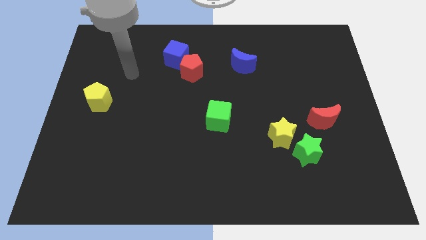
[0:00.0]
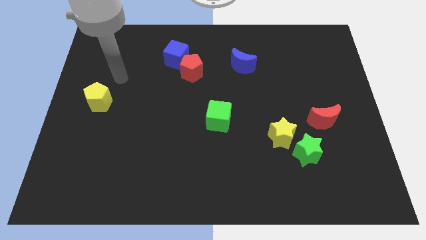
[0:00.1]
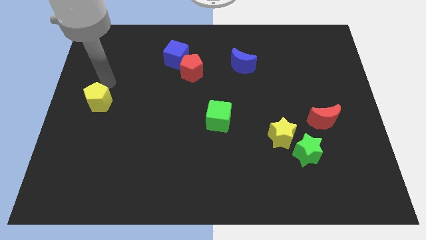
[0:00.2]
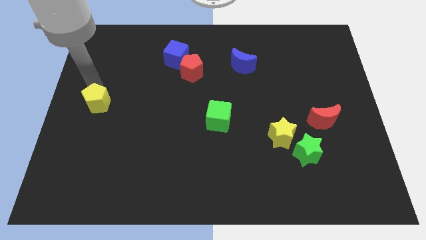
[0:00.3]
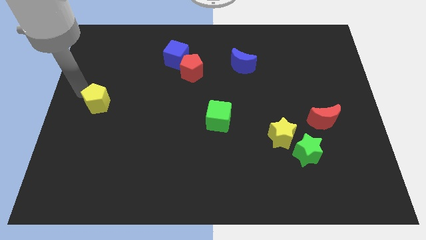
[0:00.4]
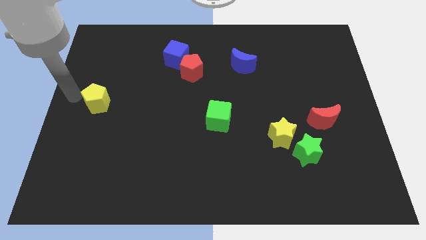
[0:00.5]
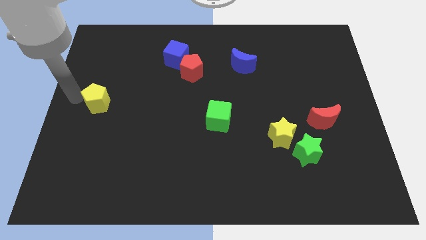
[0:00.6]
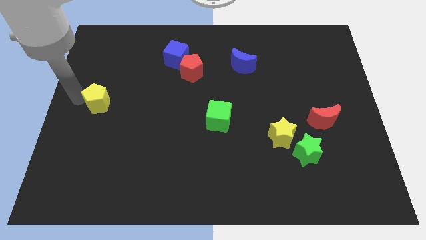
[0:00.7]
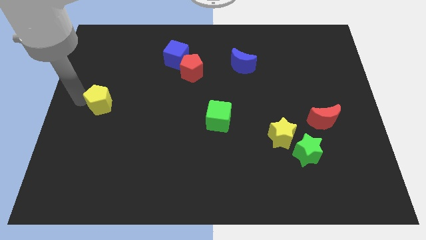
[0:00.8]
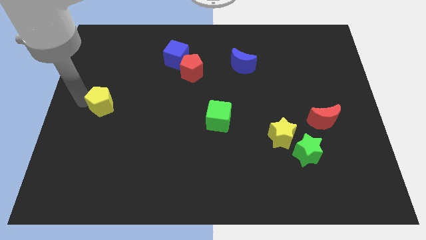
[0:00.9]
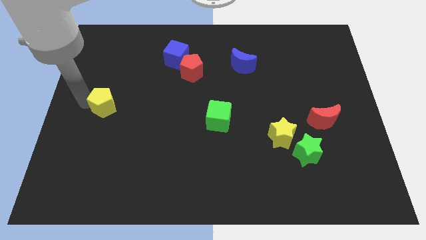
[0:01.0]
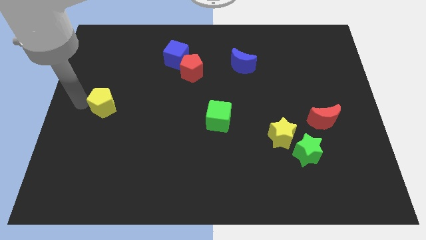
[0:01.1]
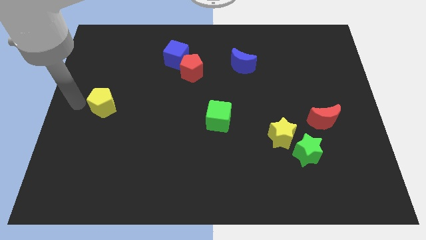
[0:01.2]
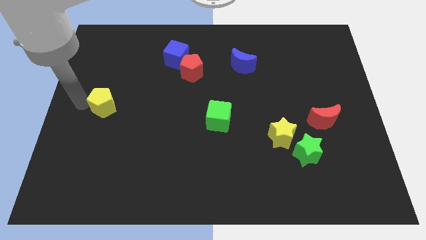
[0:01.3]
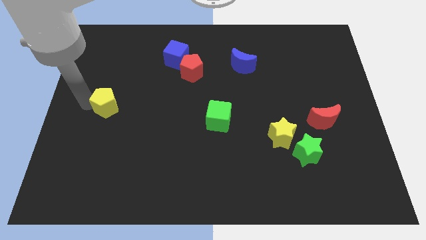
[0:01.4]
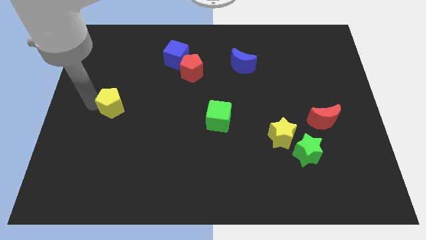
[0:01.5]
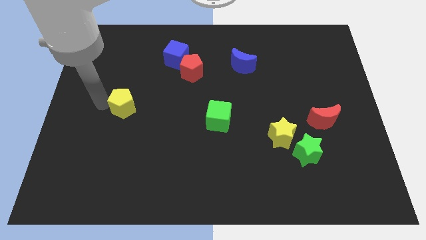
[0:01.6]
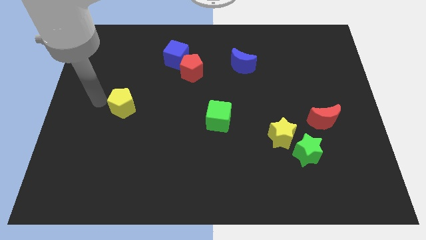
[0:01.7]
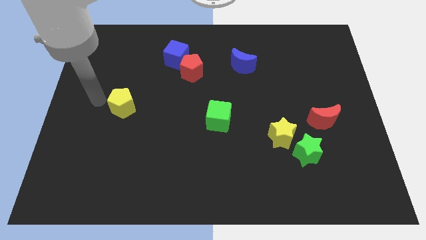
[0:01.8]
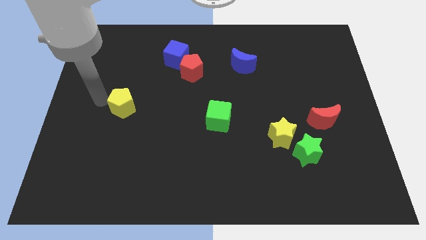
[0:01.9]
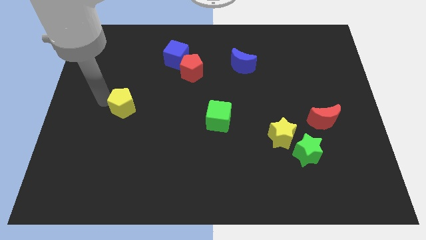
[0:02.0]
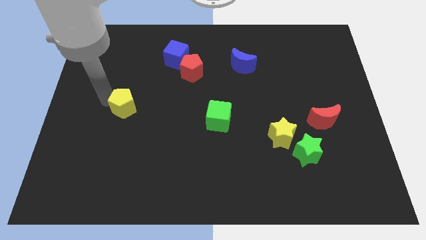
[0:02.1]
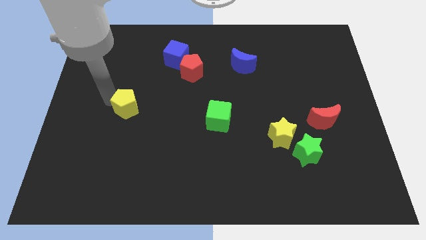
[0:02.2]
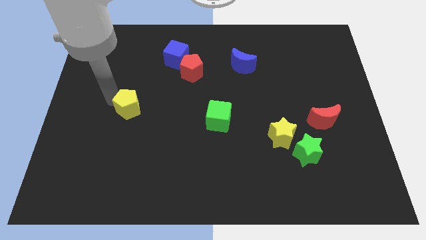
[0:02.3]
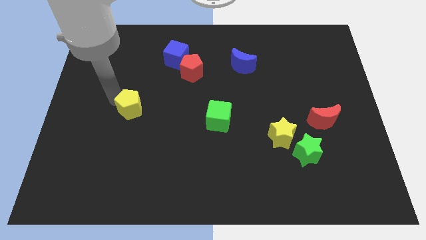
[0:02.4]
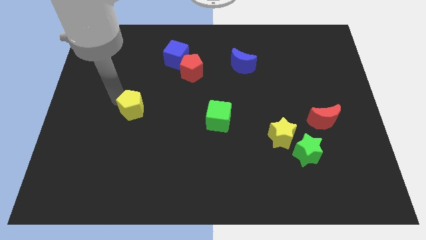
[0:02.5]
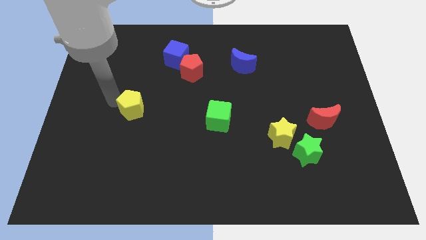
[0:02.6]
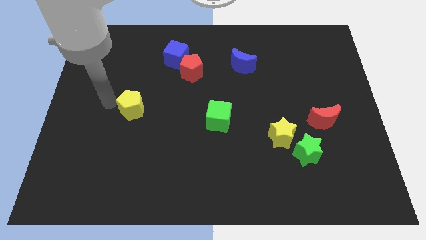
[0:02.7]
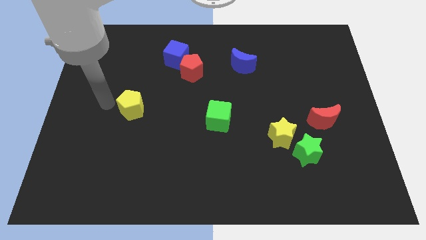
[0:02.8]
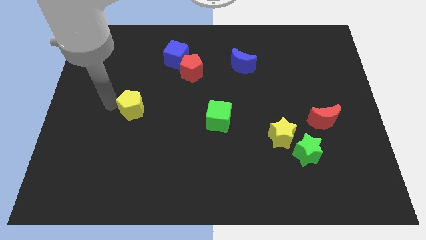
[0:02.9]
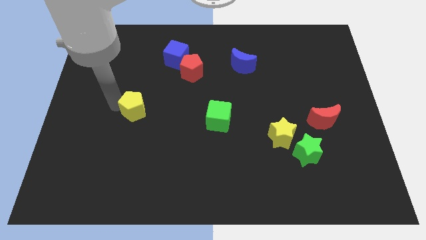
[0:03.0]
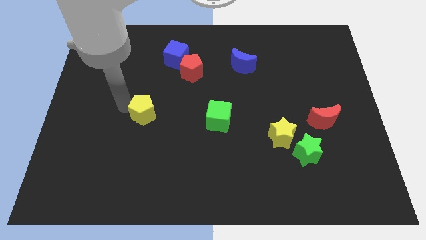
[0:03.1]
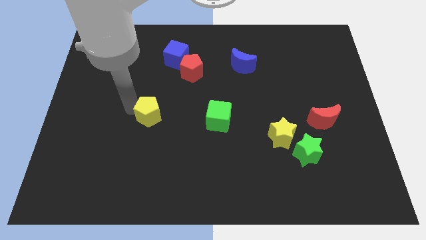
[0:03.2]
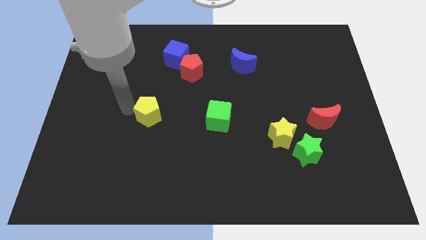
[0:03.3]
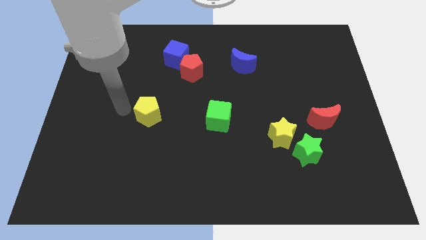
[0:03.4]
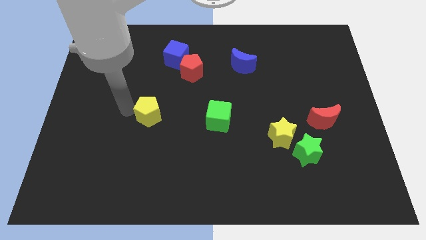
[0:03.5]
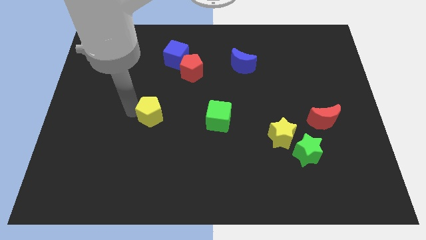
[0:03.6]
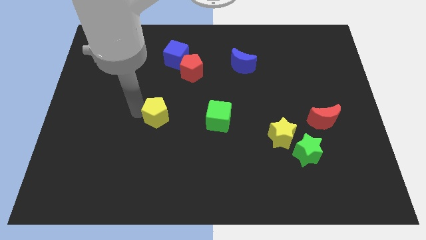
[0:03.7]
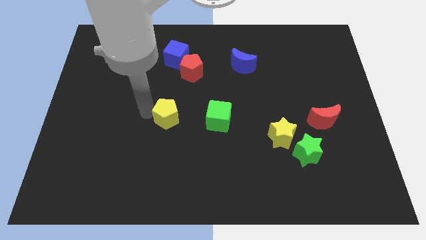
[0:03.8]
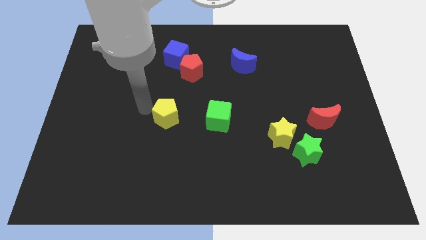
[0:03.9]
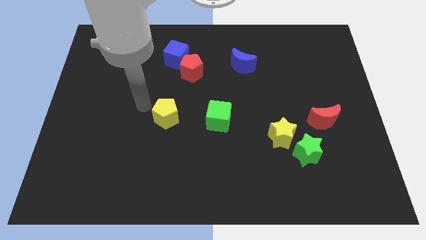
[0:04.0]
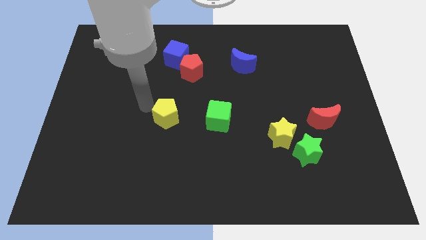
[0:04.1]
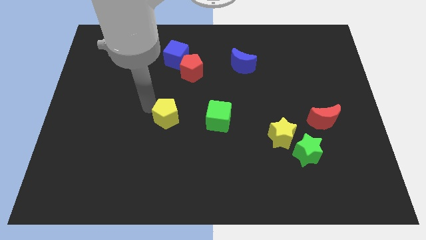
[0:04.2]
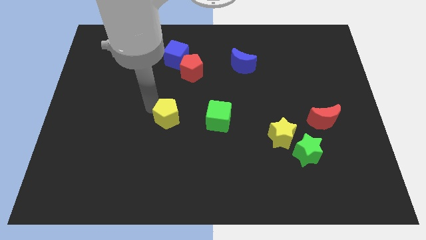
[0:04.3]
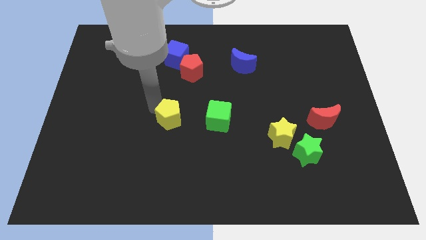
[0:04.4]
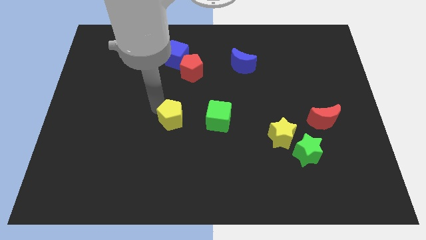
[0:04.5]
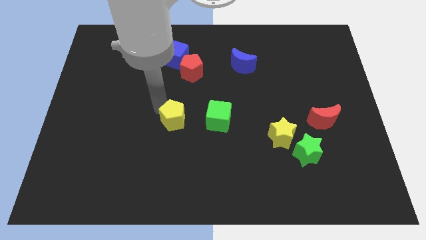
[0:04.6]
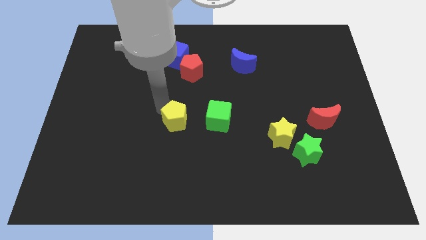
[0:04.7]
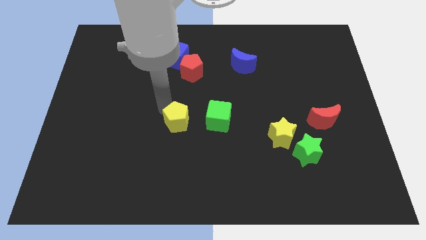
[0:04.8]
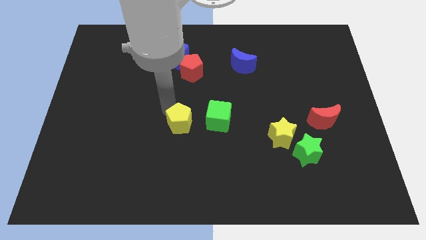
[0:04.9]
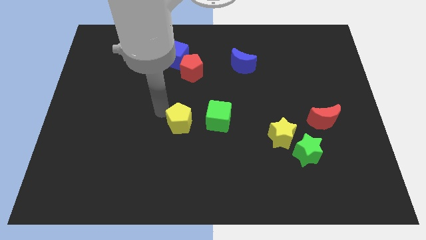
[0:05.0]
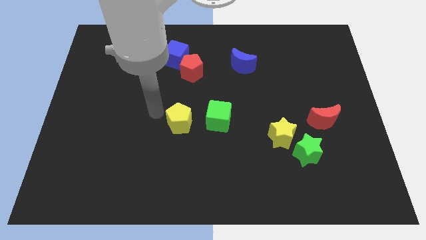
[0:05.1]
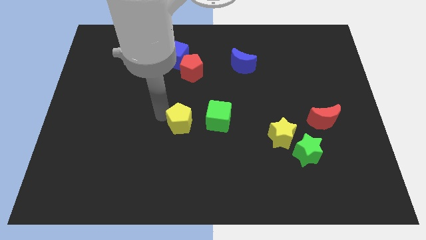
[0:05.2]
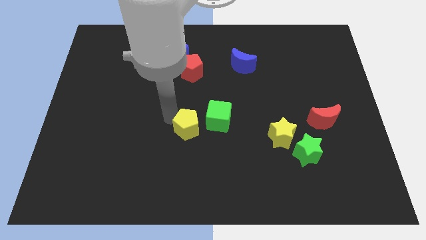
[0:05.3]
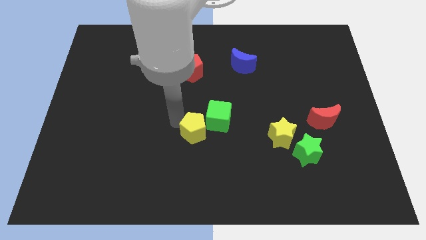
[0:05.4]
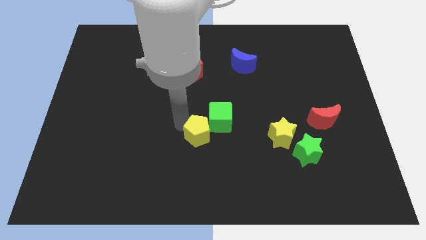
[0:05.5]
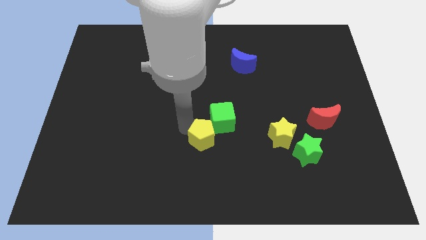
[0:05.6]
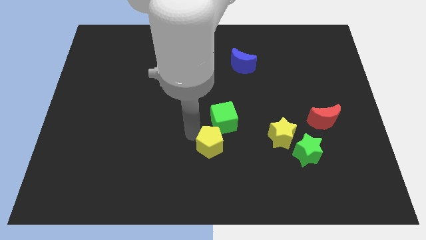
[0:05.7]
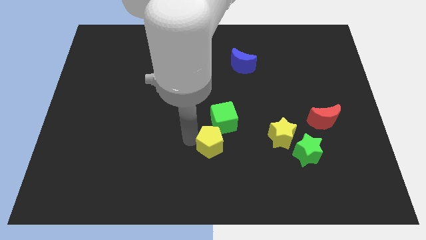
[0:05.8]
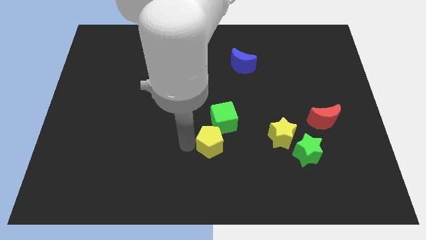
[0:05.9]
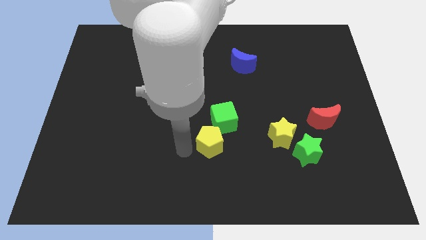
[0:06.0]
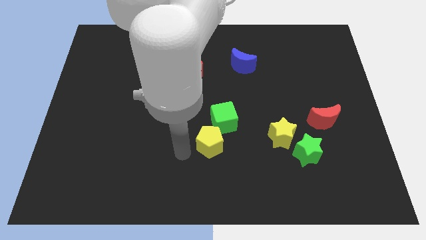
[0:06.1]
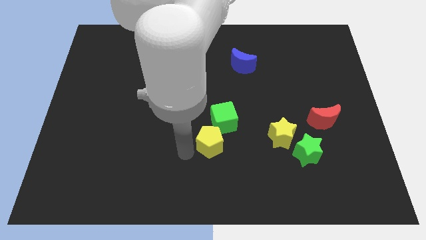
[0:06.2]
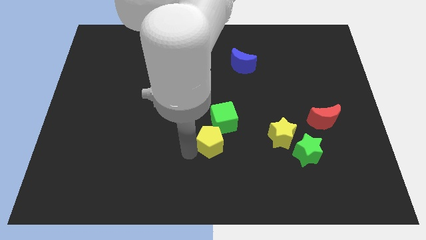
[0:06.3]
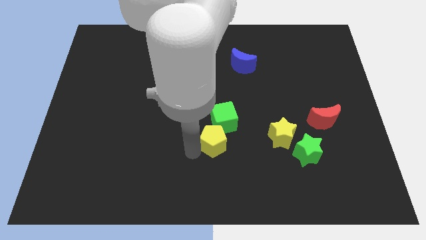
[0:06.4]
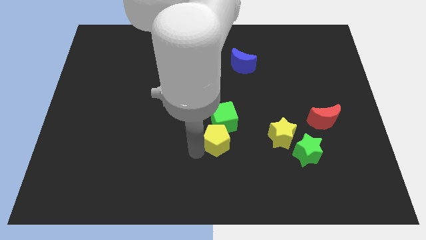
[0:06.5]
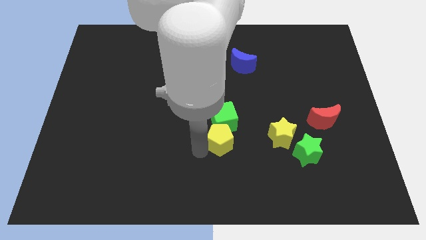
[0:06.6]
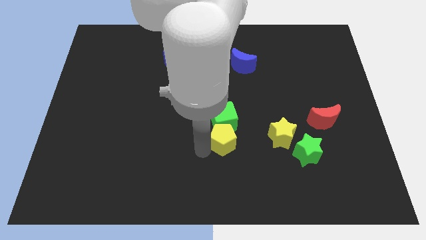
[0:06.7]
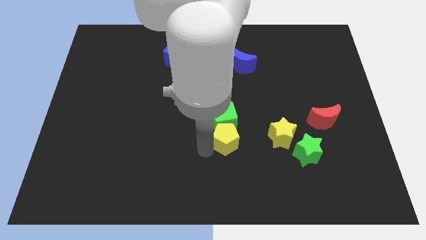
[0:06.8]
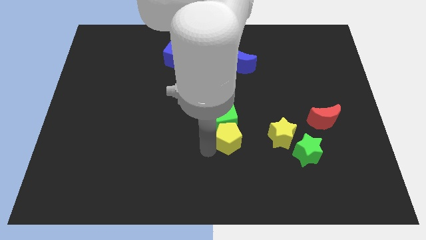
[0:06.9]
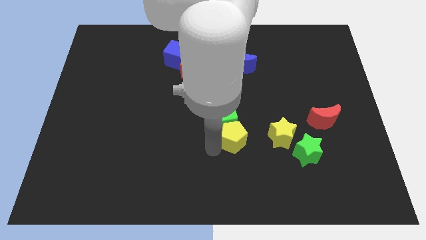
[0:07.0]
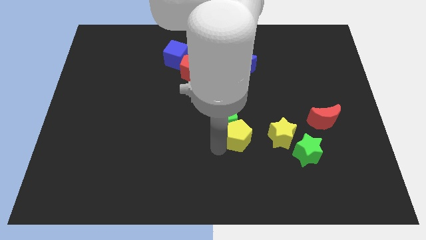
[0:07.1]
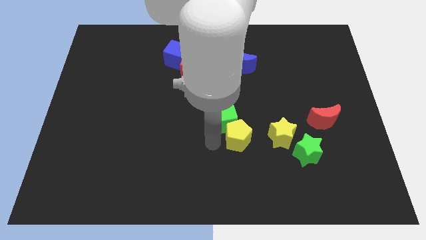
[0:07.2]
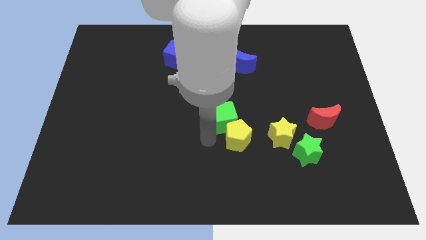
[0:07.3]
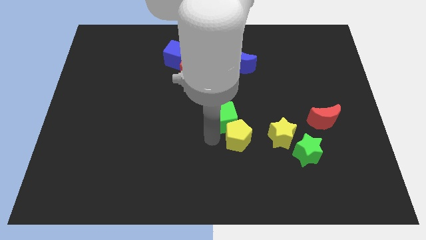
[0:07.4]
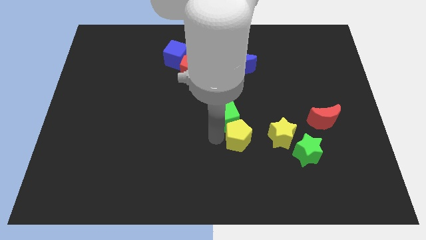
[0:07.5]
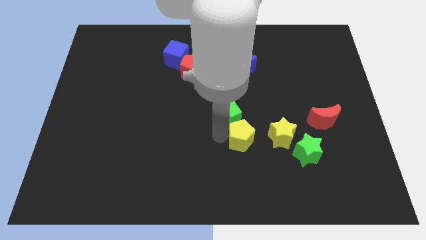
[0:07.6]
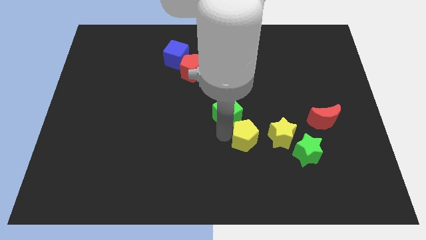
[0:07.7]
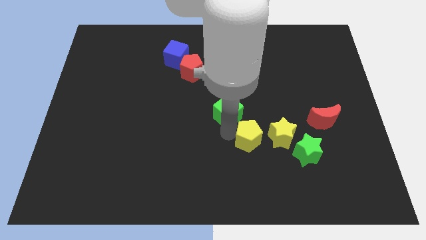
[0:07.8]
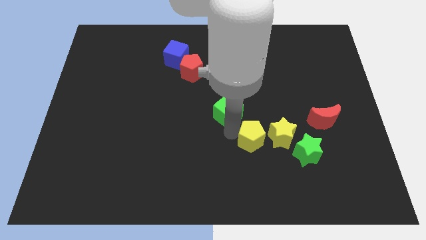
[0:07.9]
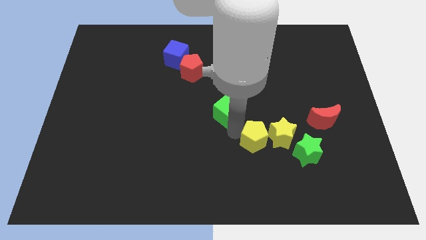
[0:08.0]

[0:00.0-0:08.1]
move the yellow pentagon close to the yellow star
